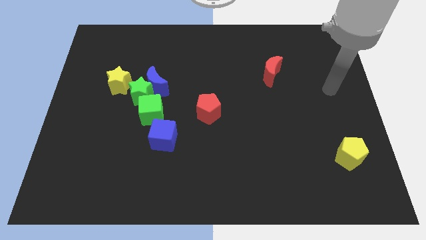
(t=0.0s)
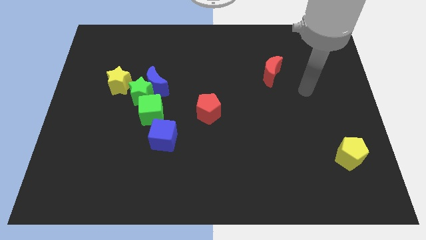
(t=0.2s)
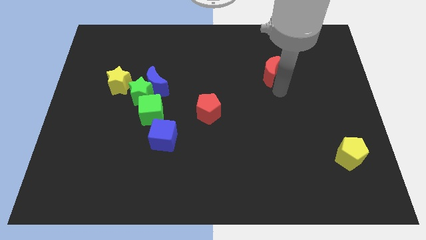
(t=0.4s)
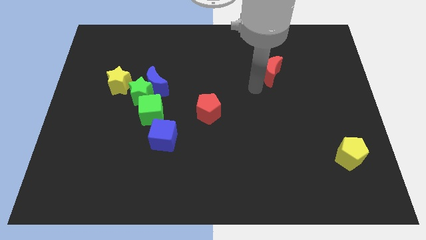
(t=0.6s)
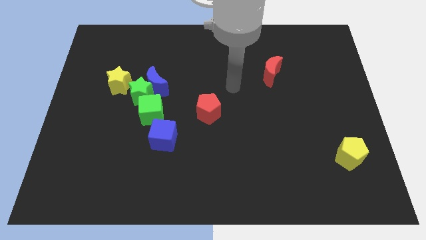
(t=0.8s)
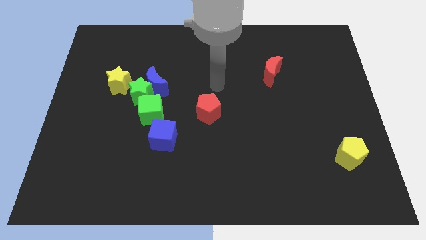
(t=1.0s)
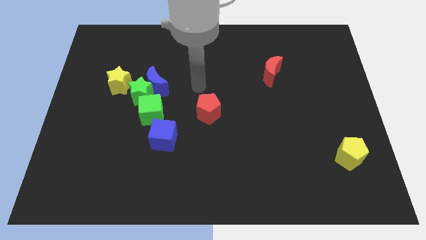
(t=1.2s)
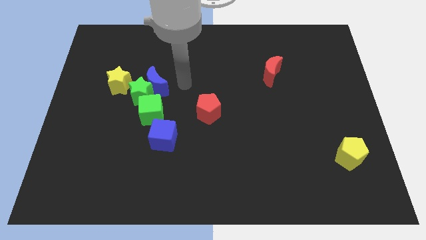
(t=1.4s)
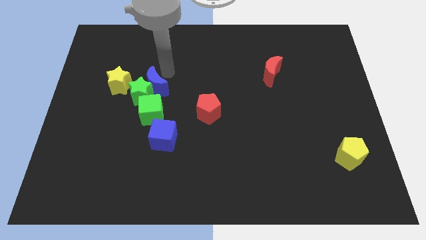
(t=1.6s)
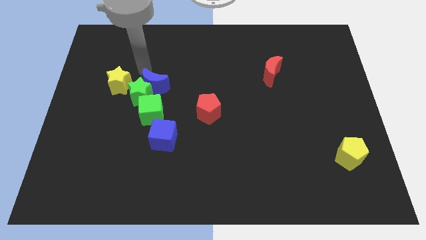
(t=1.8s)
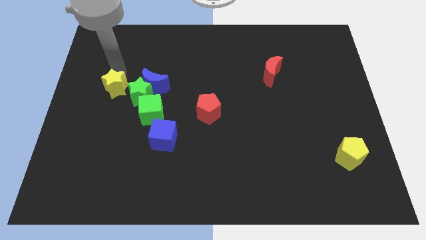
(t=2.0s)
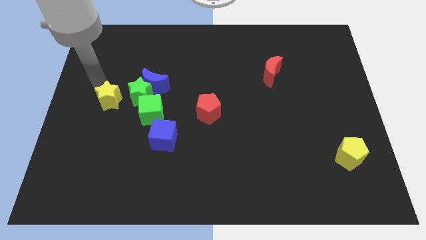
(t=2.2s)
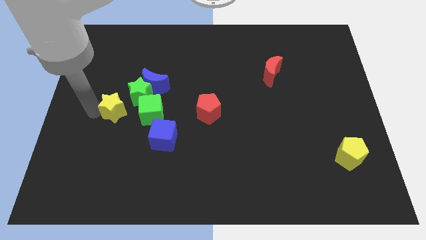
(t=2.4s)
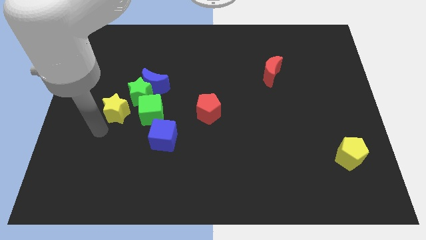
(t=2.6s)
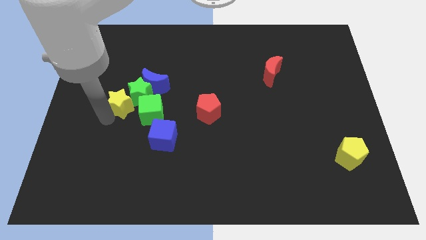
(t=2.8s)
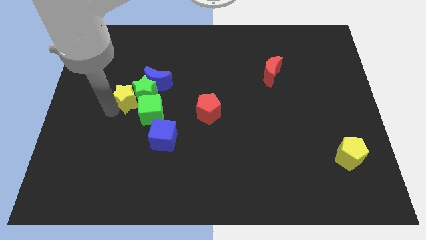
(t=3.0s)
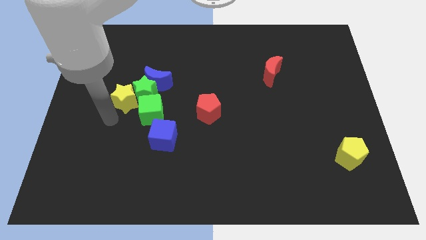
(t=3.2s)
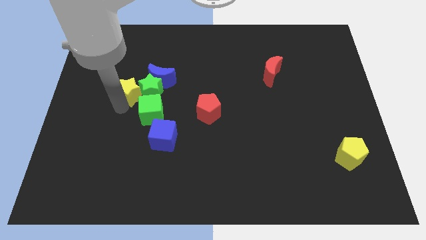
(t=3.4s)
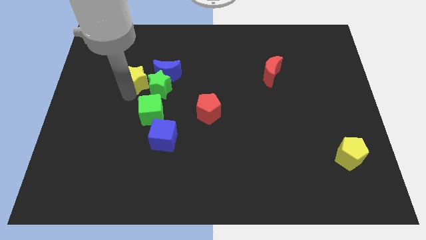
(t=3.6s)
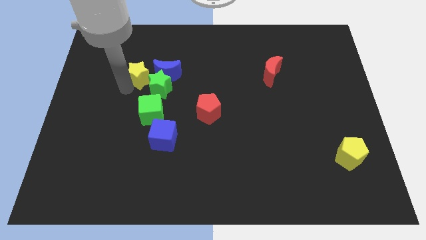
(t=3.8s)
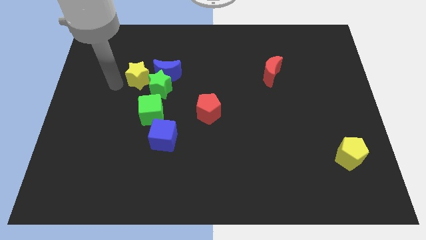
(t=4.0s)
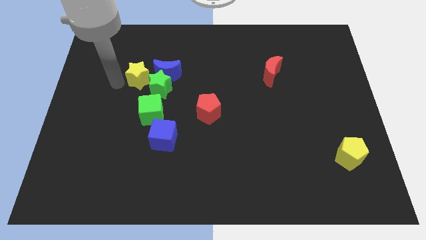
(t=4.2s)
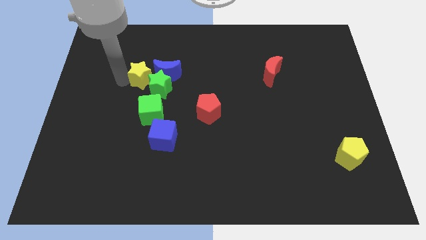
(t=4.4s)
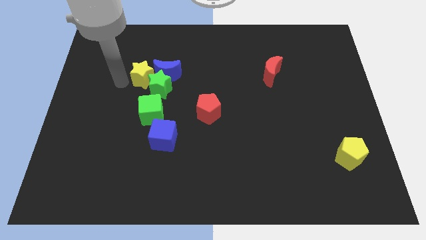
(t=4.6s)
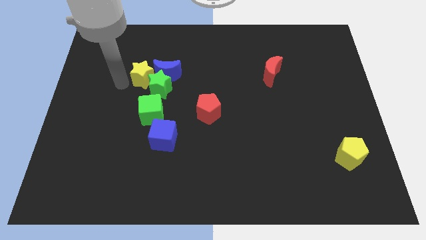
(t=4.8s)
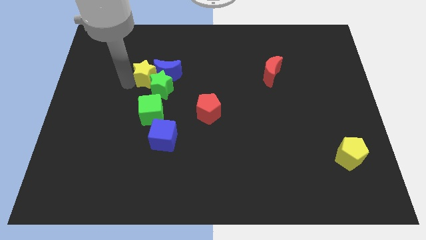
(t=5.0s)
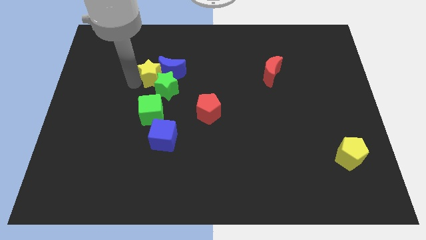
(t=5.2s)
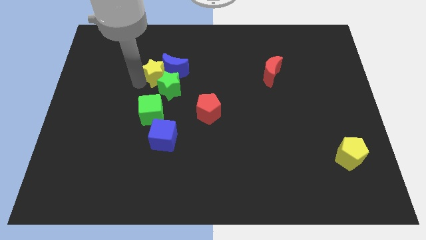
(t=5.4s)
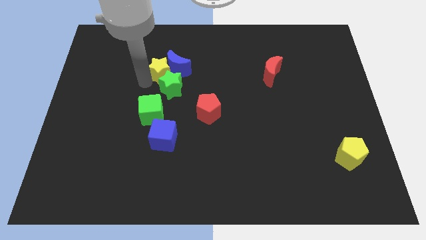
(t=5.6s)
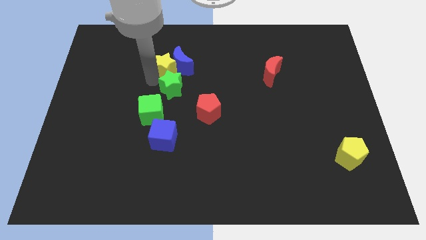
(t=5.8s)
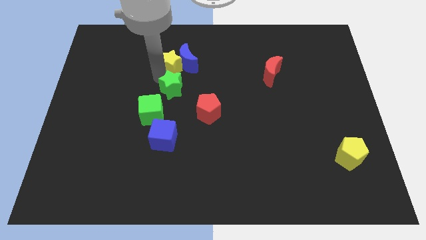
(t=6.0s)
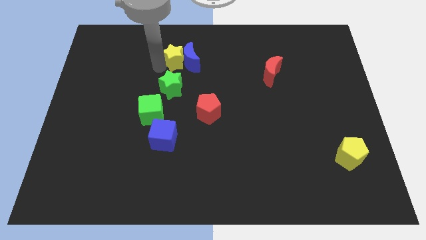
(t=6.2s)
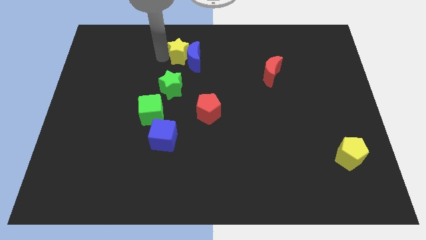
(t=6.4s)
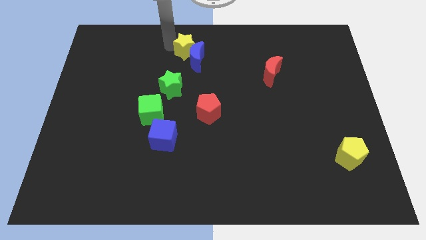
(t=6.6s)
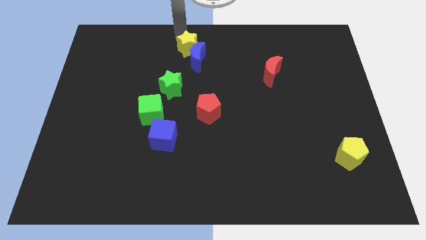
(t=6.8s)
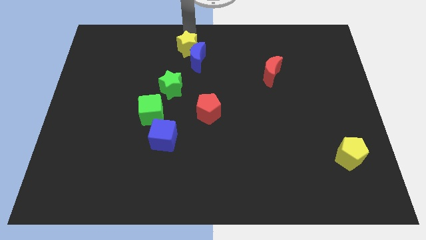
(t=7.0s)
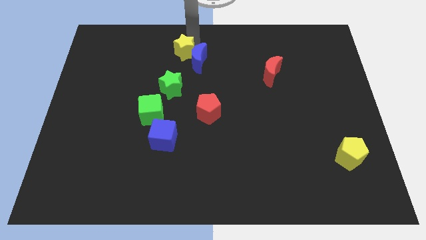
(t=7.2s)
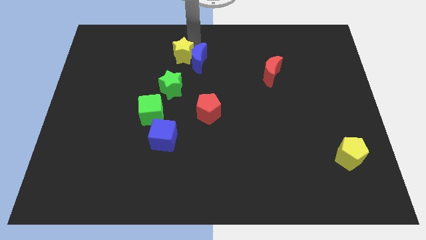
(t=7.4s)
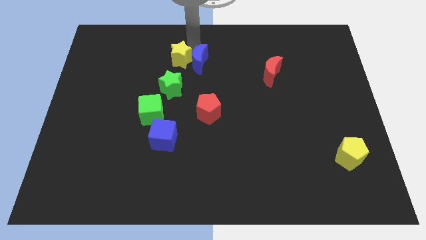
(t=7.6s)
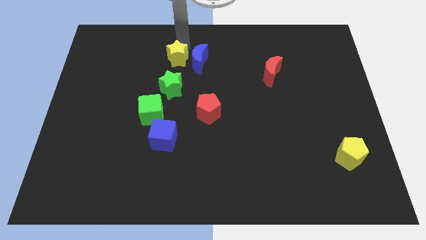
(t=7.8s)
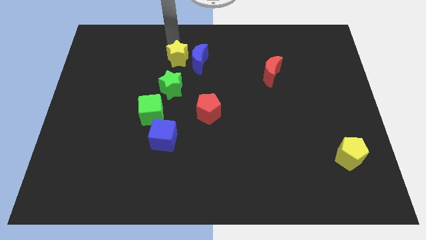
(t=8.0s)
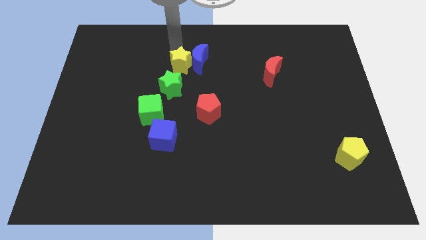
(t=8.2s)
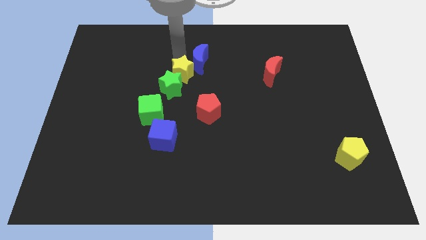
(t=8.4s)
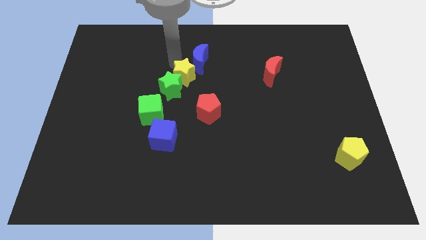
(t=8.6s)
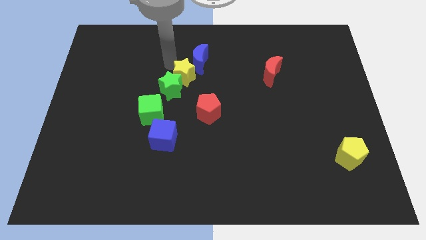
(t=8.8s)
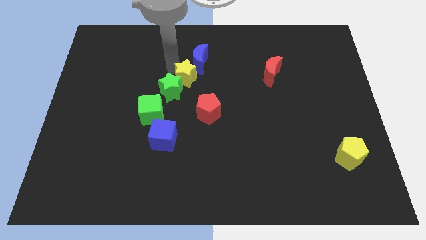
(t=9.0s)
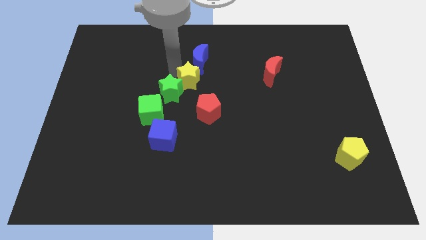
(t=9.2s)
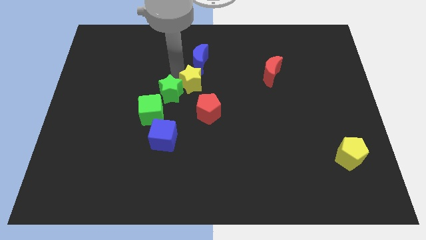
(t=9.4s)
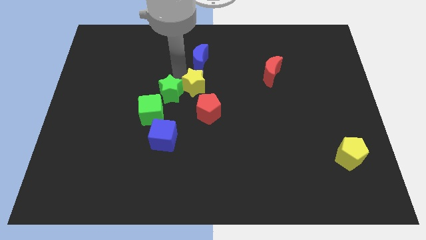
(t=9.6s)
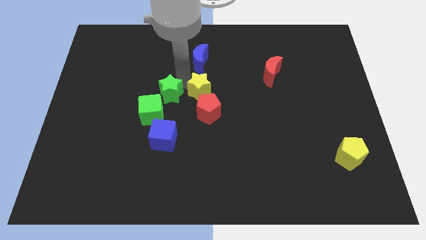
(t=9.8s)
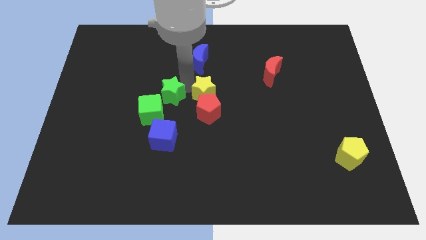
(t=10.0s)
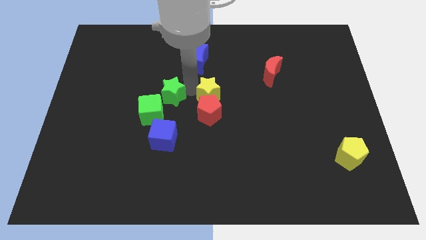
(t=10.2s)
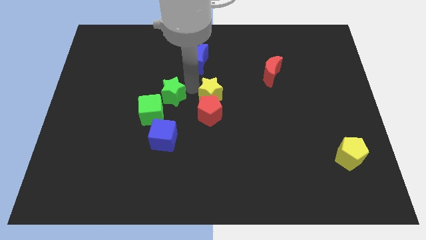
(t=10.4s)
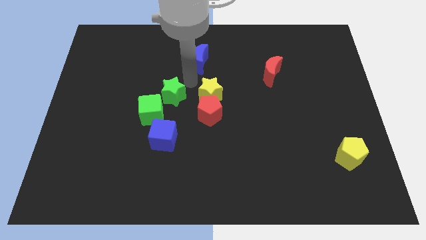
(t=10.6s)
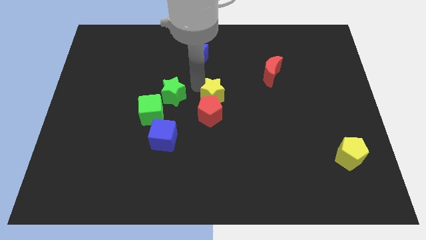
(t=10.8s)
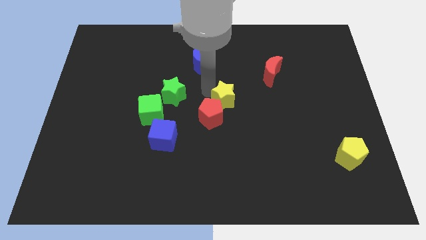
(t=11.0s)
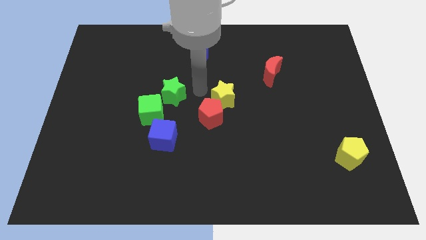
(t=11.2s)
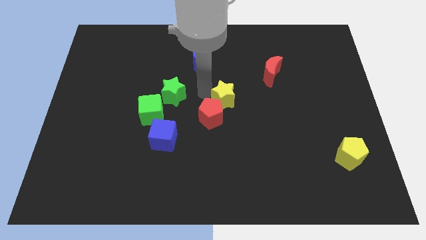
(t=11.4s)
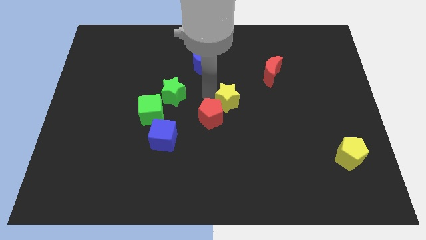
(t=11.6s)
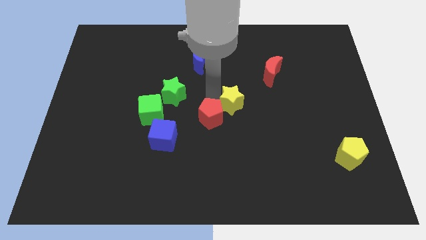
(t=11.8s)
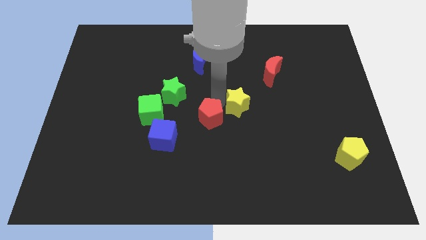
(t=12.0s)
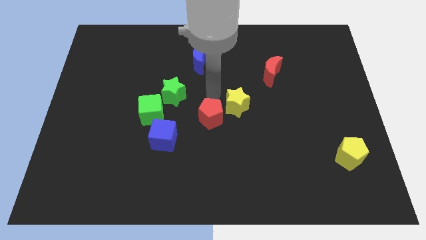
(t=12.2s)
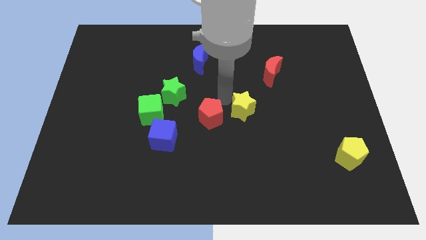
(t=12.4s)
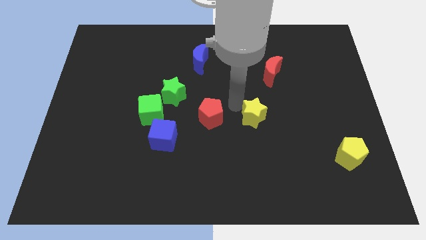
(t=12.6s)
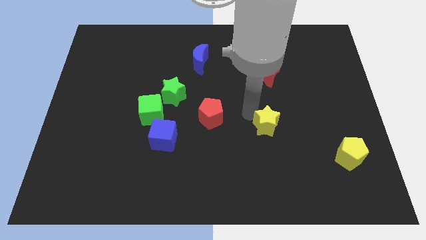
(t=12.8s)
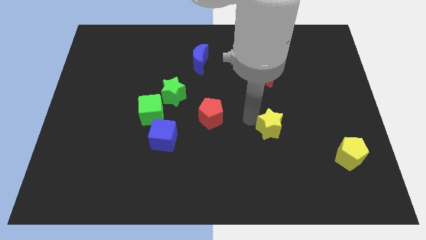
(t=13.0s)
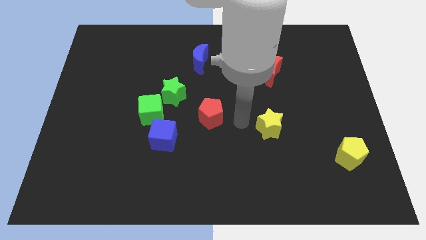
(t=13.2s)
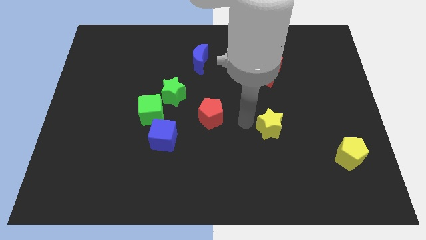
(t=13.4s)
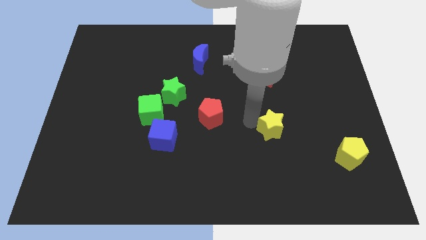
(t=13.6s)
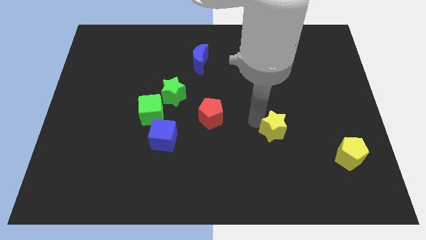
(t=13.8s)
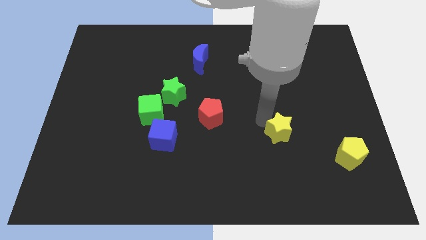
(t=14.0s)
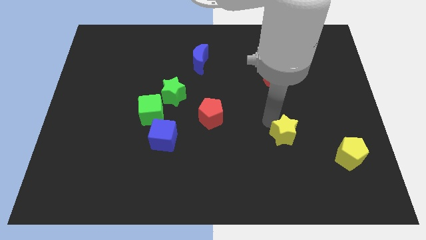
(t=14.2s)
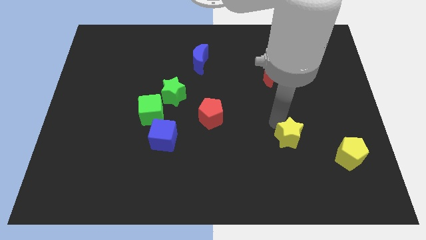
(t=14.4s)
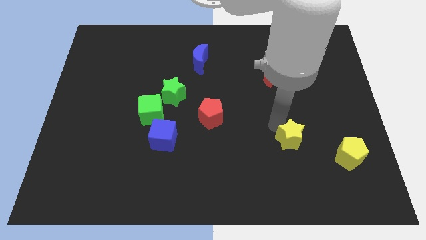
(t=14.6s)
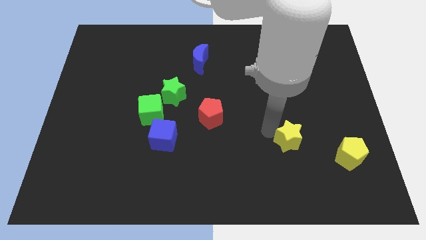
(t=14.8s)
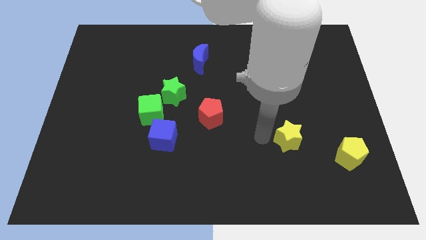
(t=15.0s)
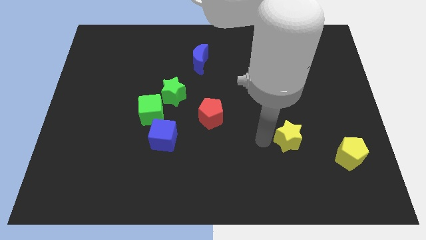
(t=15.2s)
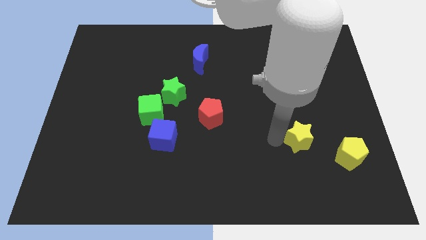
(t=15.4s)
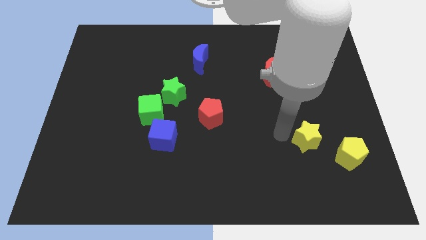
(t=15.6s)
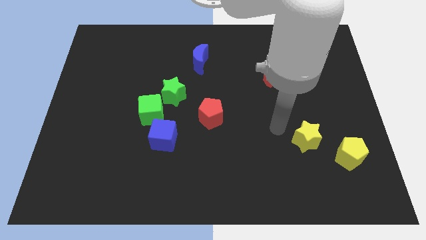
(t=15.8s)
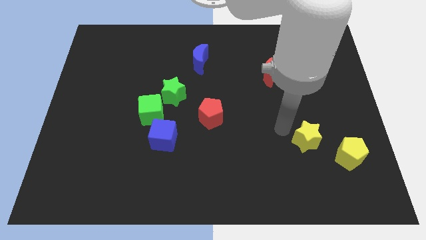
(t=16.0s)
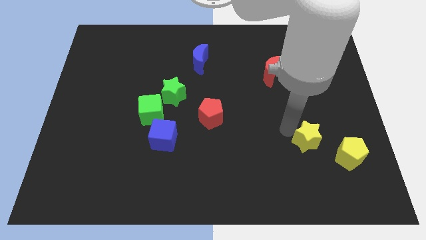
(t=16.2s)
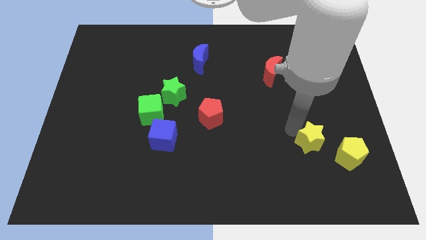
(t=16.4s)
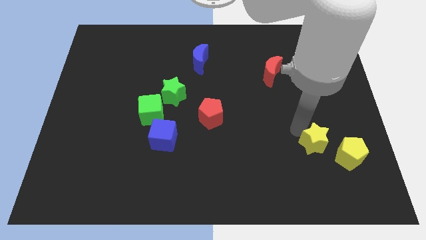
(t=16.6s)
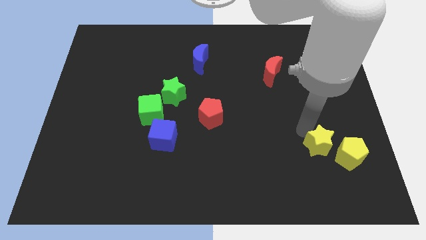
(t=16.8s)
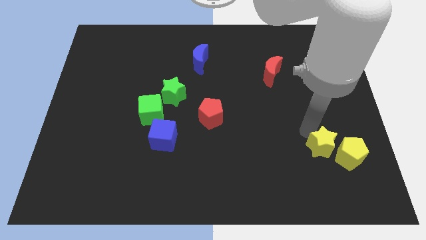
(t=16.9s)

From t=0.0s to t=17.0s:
move the yellow star next to the yellow pentagon
